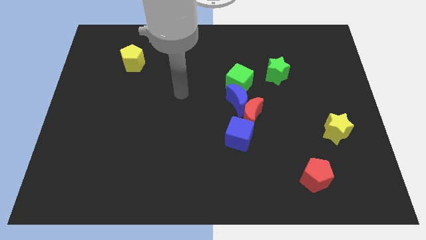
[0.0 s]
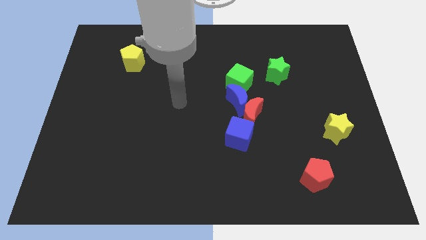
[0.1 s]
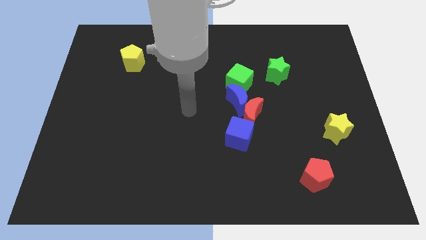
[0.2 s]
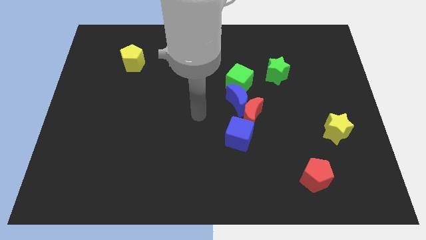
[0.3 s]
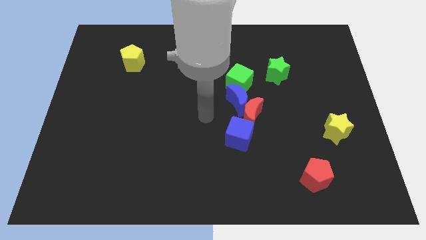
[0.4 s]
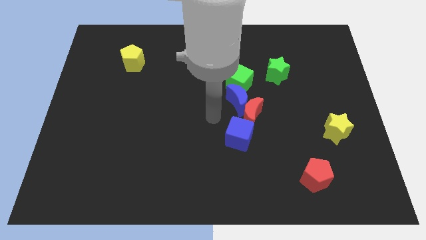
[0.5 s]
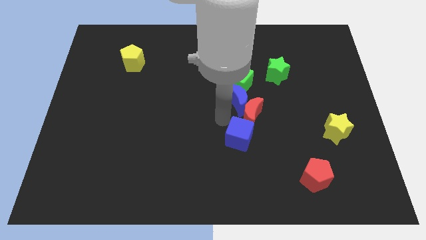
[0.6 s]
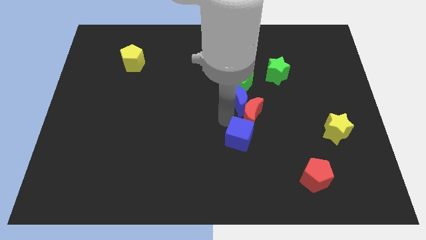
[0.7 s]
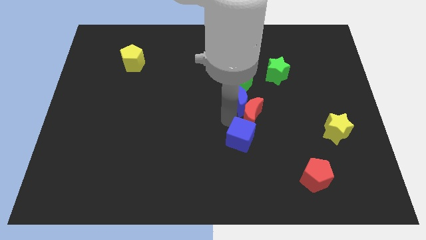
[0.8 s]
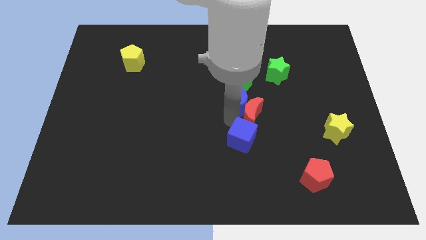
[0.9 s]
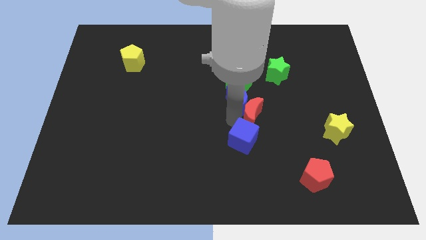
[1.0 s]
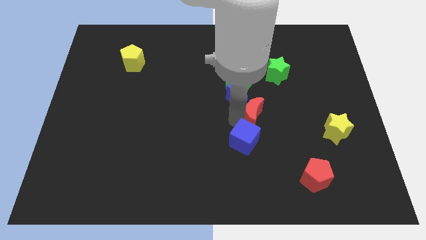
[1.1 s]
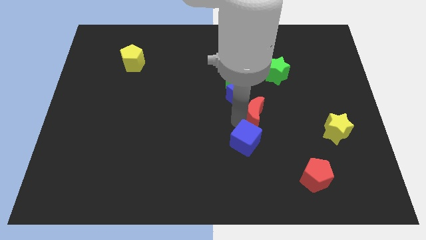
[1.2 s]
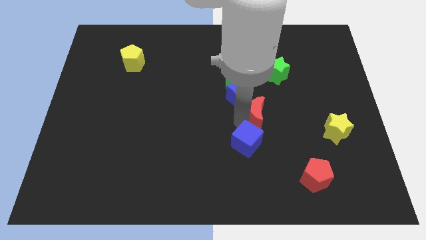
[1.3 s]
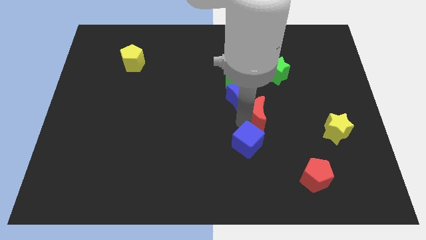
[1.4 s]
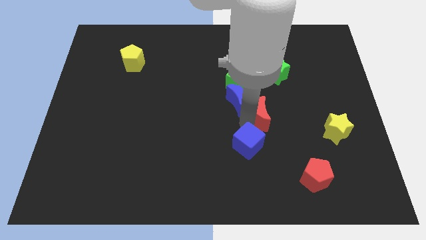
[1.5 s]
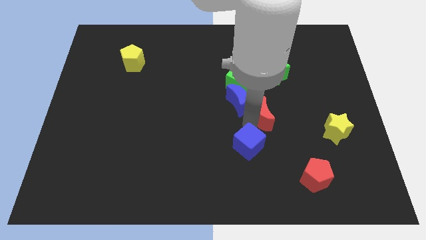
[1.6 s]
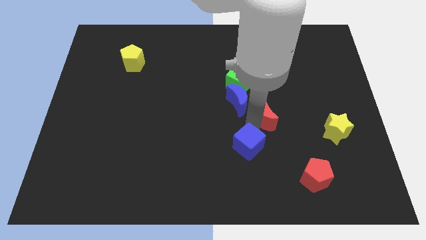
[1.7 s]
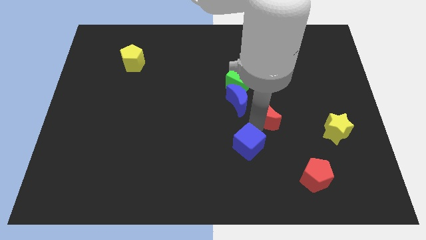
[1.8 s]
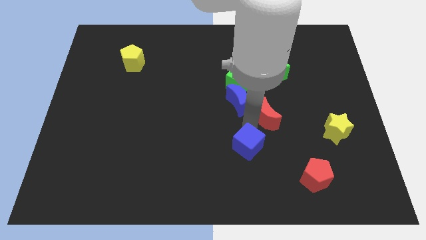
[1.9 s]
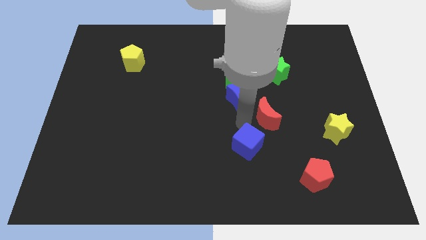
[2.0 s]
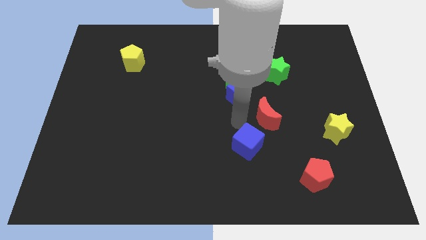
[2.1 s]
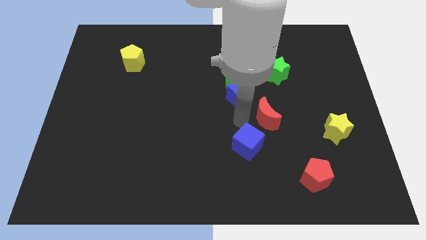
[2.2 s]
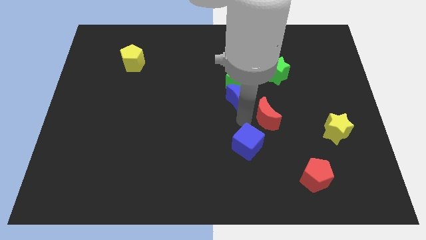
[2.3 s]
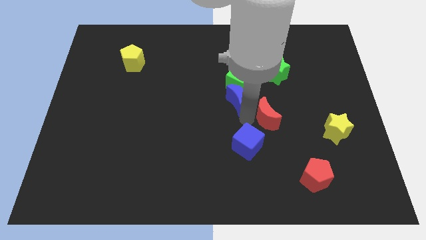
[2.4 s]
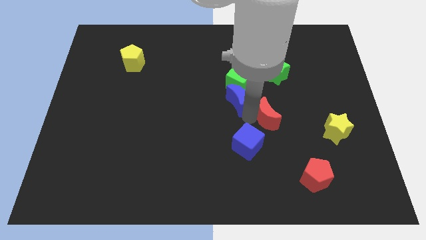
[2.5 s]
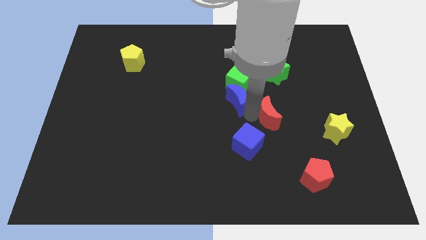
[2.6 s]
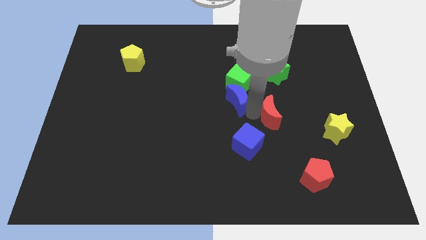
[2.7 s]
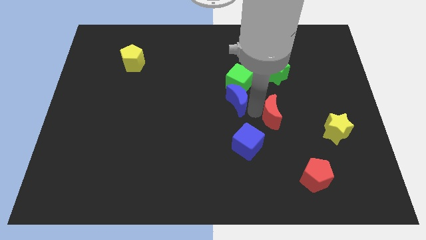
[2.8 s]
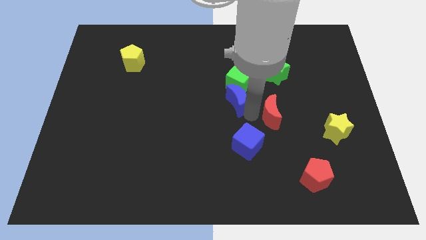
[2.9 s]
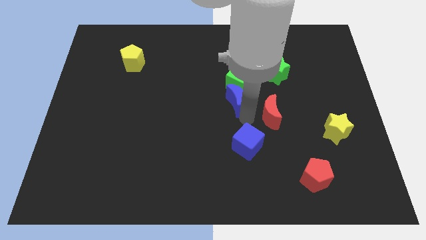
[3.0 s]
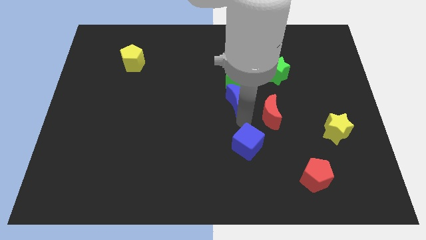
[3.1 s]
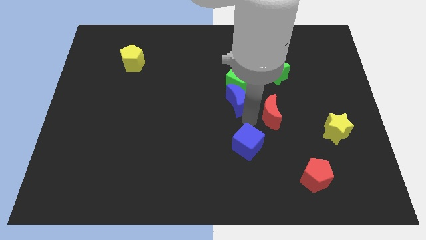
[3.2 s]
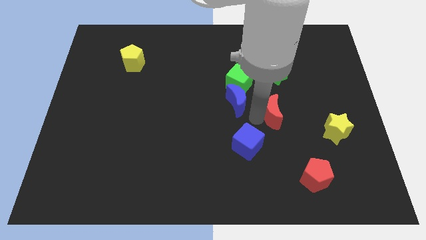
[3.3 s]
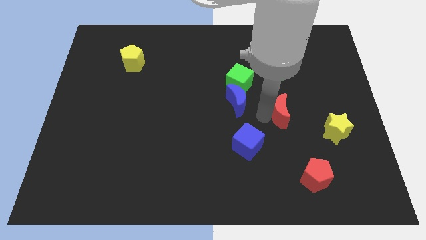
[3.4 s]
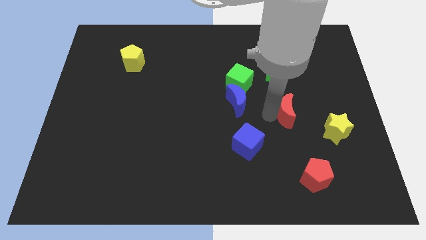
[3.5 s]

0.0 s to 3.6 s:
move the red moon away from the blue moon and blue cube

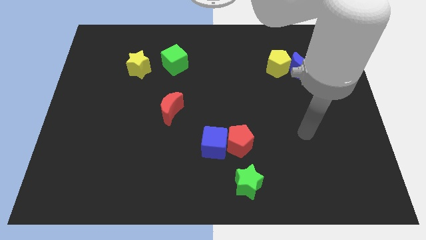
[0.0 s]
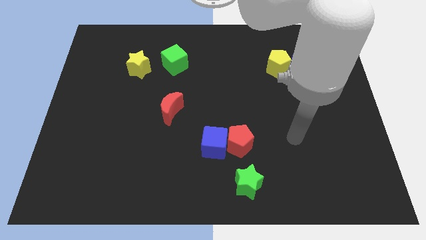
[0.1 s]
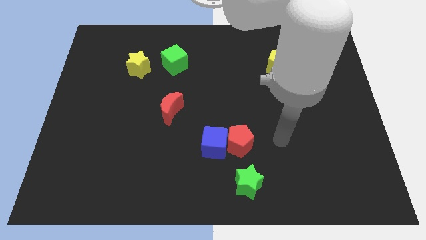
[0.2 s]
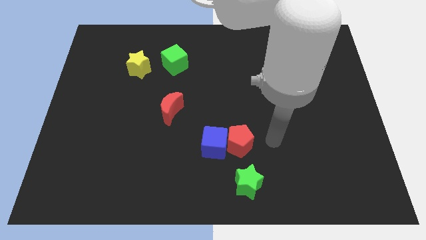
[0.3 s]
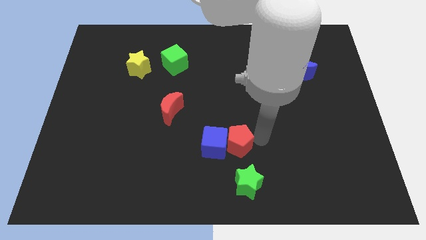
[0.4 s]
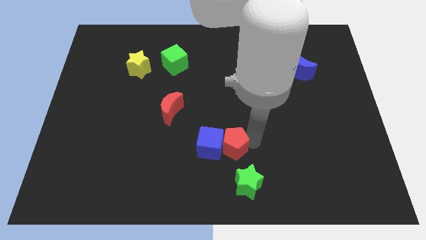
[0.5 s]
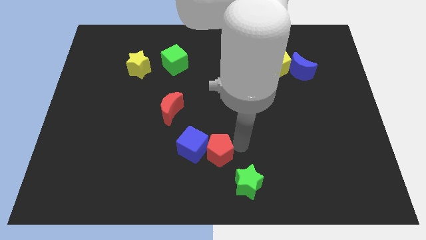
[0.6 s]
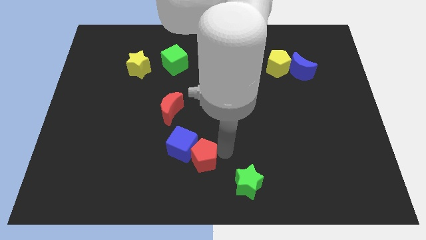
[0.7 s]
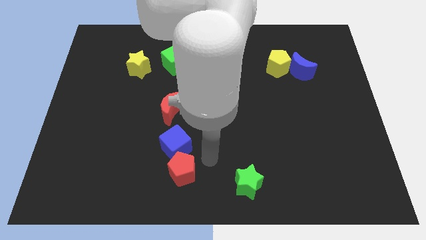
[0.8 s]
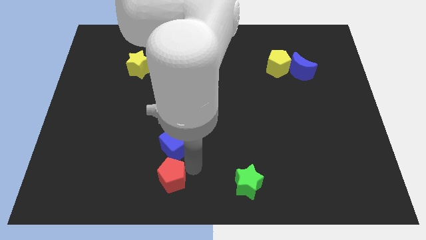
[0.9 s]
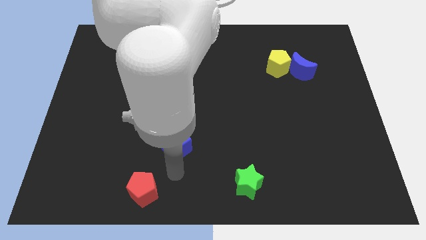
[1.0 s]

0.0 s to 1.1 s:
separate the blue cube from the red pentagon

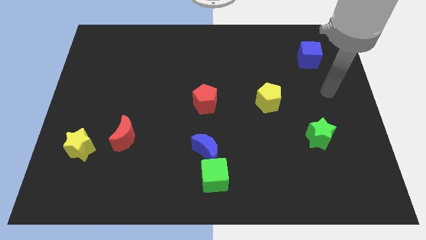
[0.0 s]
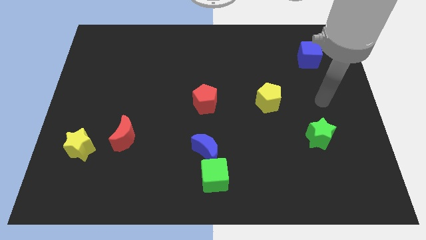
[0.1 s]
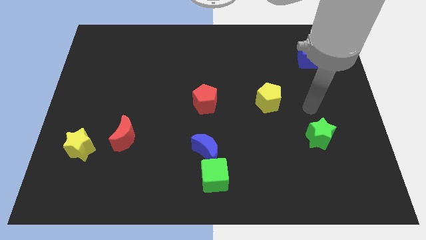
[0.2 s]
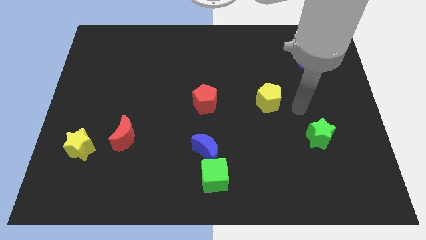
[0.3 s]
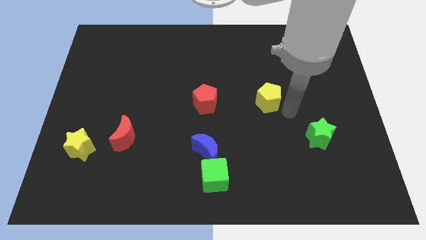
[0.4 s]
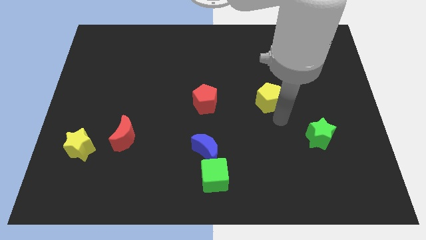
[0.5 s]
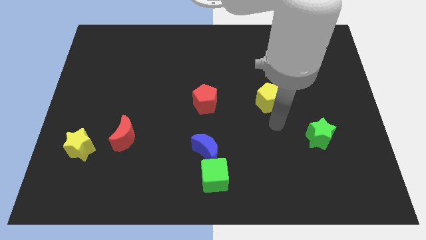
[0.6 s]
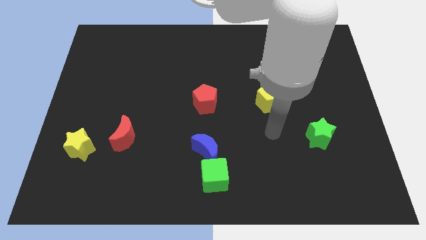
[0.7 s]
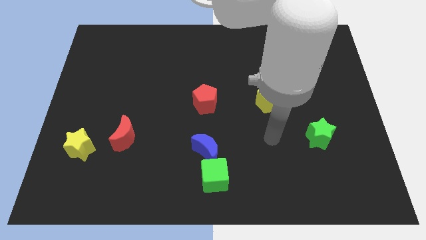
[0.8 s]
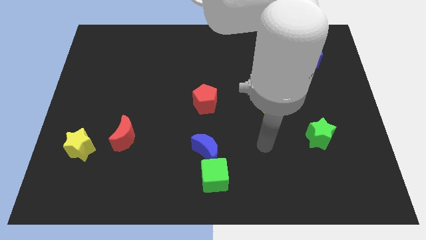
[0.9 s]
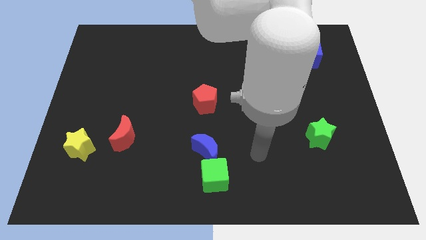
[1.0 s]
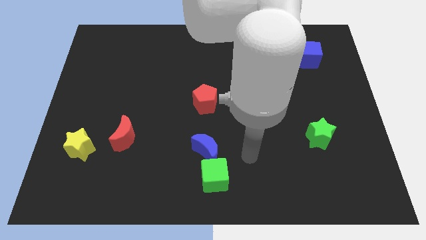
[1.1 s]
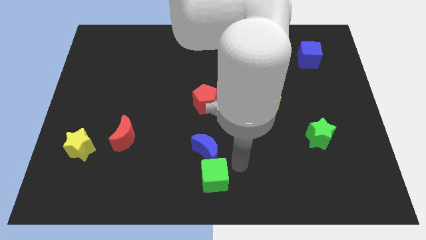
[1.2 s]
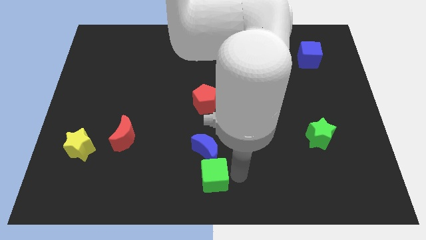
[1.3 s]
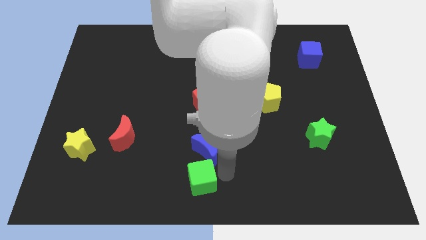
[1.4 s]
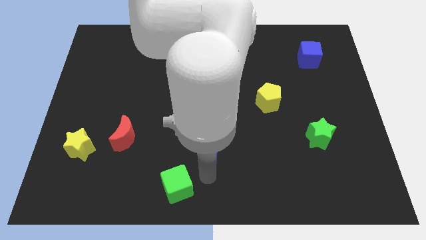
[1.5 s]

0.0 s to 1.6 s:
move the blue moon away from the green cube

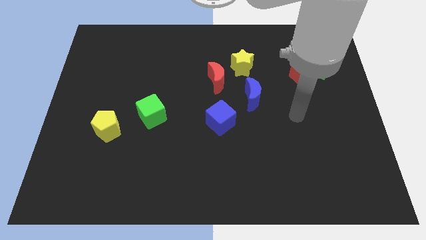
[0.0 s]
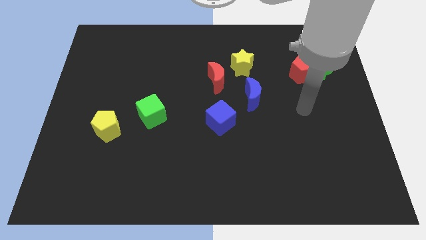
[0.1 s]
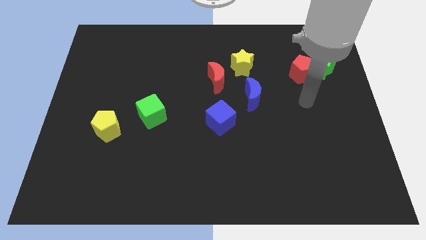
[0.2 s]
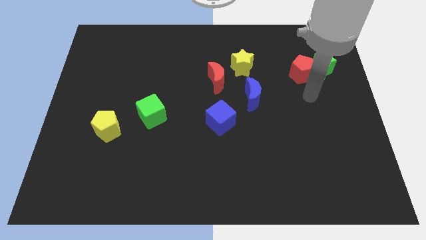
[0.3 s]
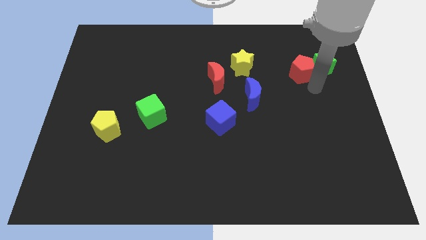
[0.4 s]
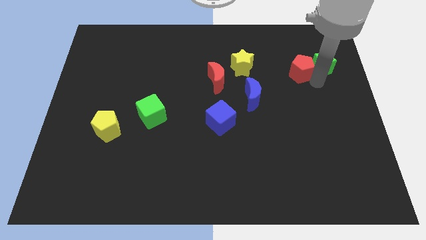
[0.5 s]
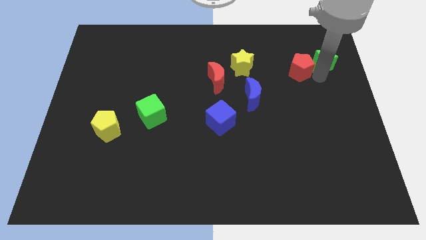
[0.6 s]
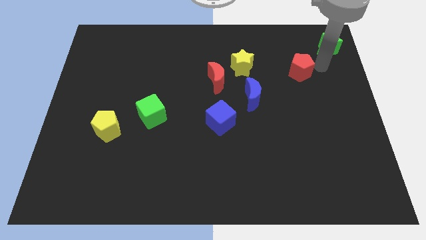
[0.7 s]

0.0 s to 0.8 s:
separate the red pentagon from the green star

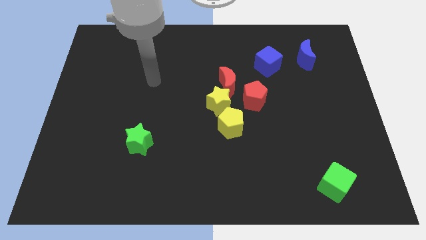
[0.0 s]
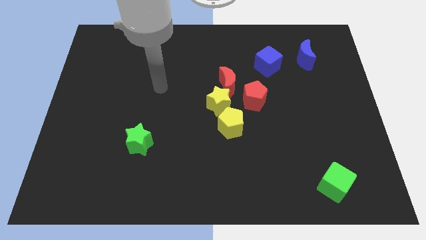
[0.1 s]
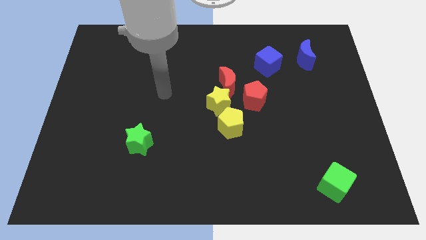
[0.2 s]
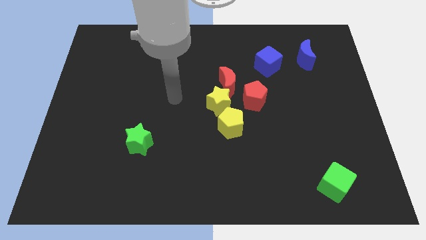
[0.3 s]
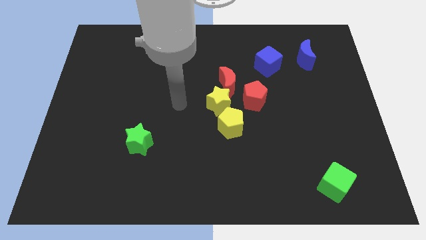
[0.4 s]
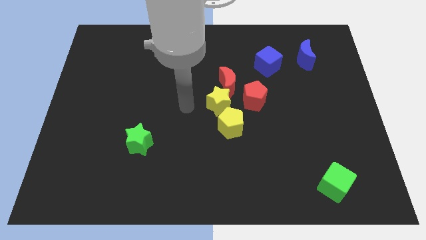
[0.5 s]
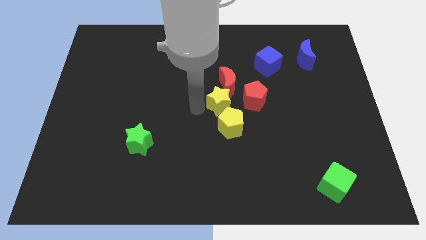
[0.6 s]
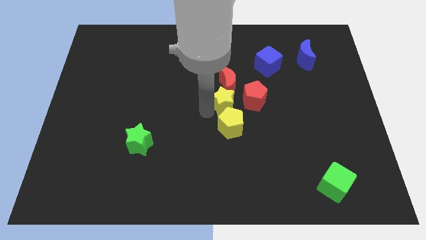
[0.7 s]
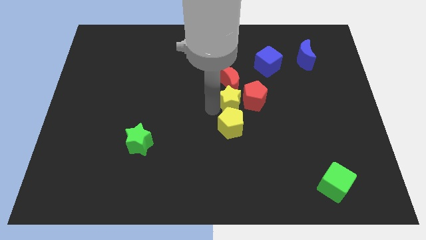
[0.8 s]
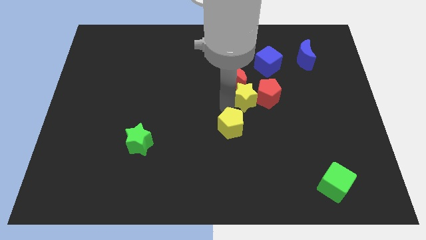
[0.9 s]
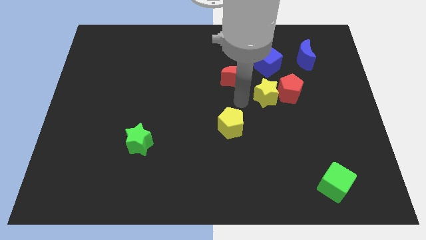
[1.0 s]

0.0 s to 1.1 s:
pull the red moon apart from the yellow star and red pentagon

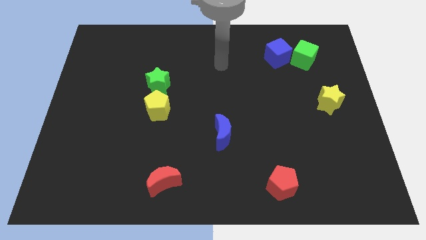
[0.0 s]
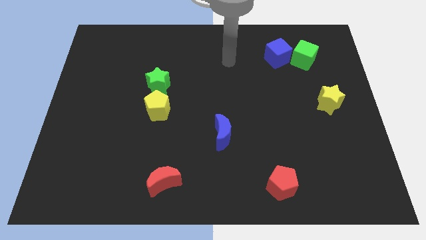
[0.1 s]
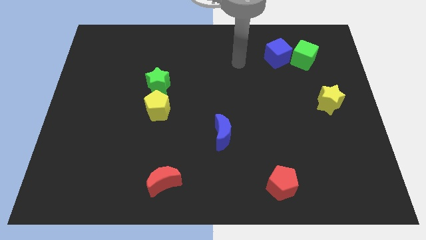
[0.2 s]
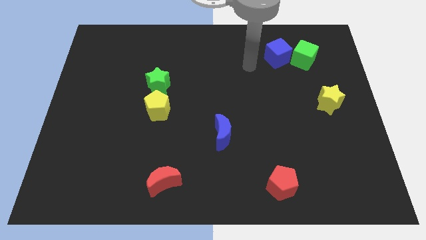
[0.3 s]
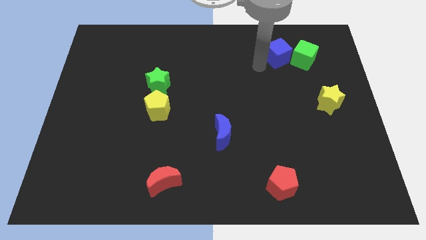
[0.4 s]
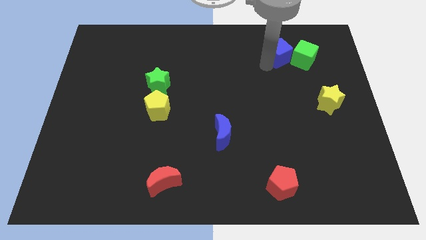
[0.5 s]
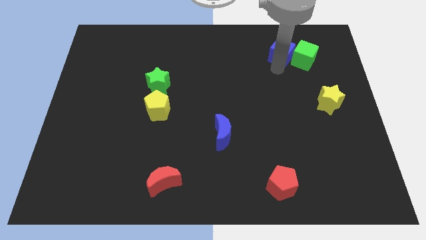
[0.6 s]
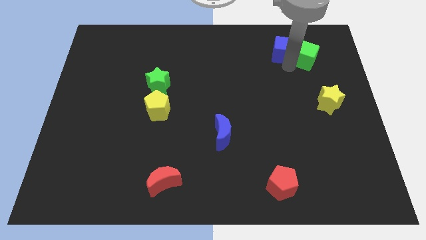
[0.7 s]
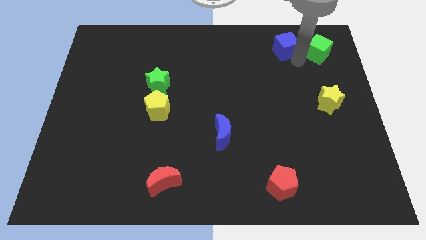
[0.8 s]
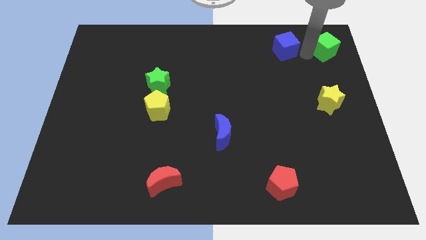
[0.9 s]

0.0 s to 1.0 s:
pull the blue cube apart from the green cube

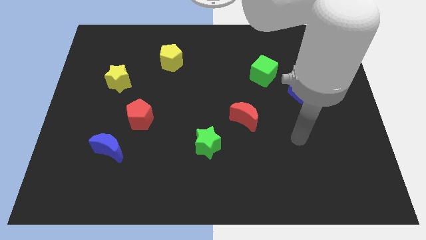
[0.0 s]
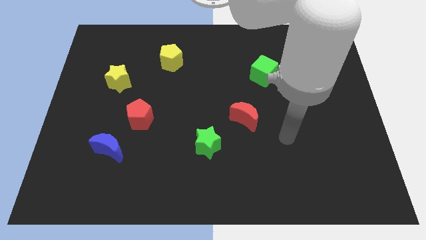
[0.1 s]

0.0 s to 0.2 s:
move the red pentagon away from the blue moon

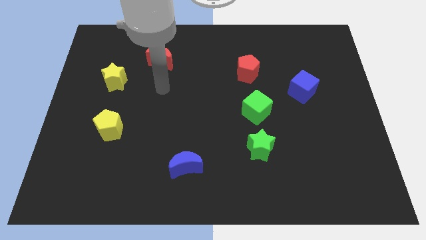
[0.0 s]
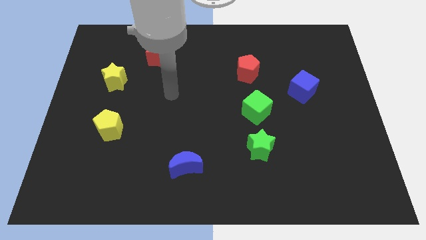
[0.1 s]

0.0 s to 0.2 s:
pull the green cube apart from the green star
